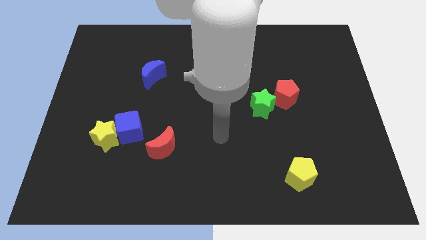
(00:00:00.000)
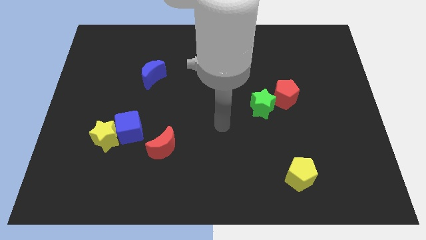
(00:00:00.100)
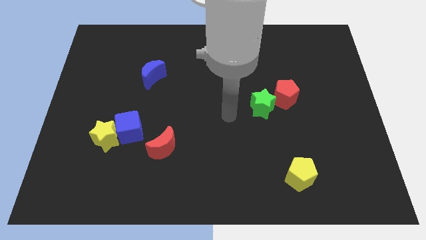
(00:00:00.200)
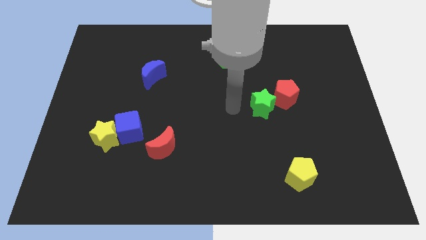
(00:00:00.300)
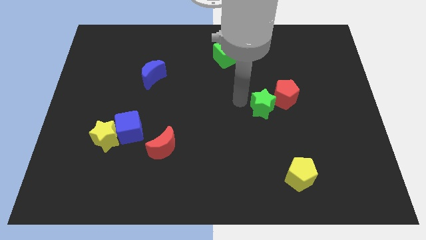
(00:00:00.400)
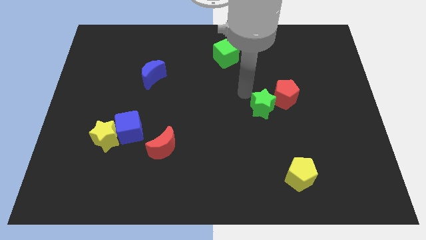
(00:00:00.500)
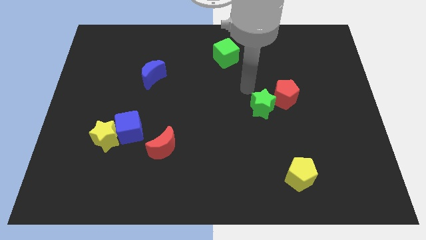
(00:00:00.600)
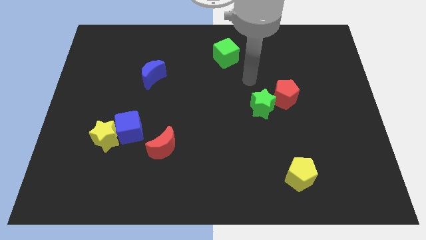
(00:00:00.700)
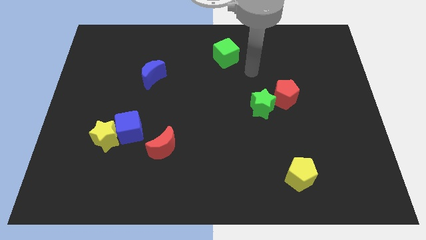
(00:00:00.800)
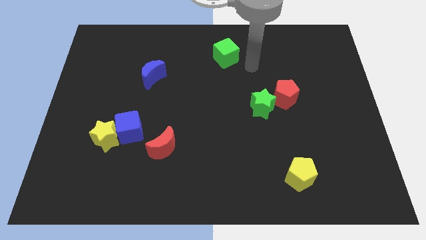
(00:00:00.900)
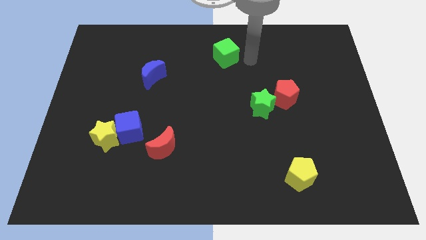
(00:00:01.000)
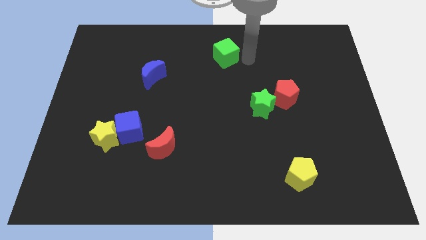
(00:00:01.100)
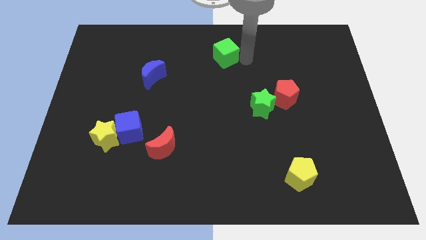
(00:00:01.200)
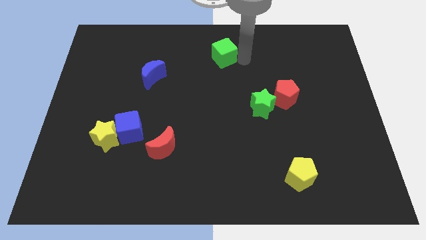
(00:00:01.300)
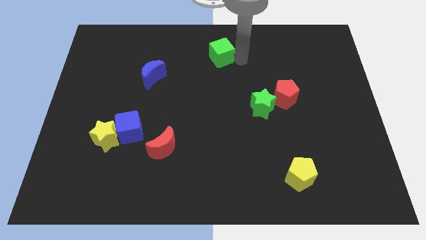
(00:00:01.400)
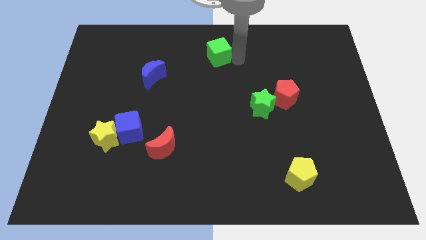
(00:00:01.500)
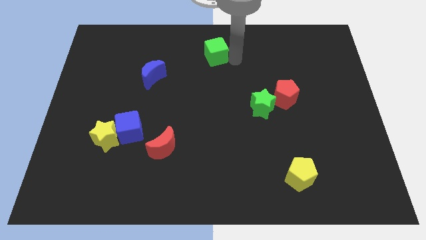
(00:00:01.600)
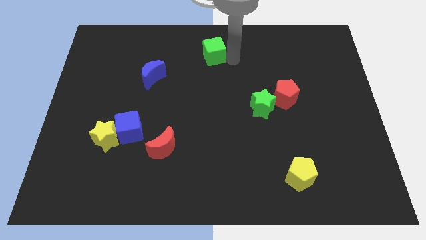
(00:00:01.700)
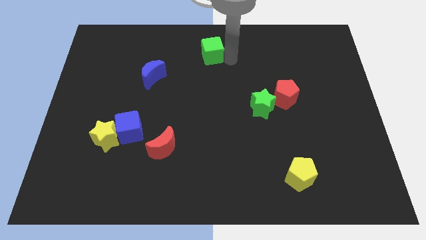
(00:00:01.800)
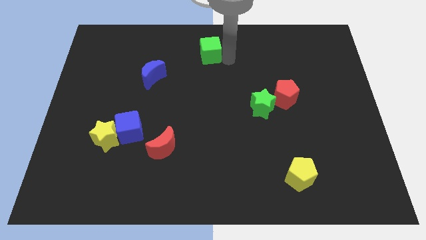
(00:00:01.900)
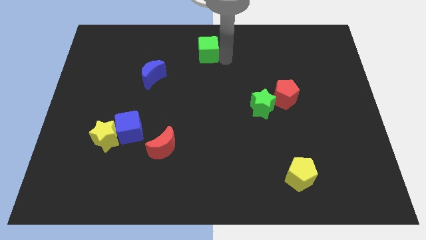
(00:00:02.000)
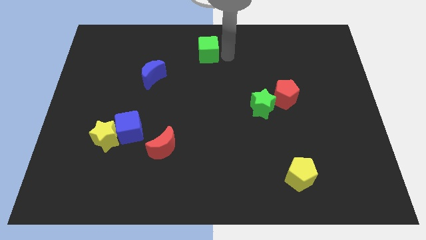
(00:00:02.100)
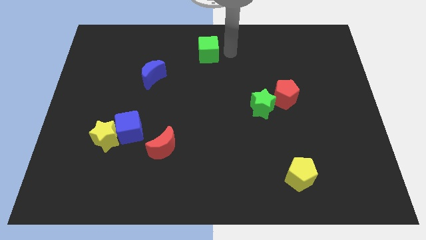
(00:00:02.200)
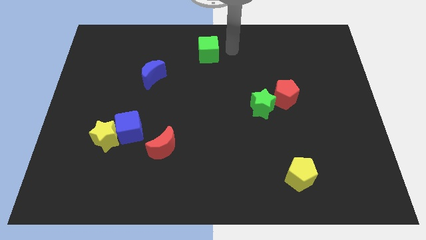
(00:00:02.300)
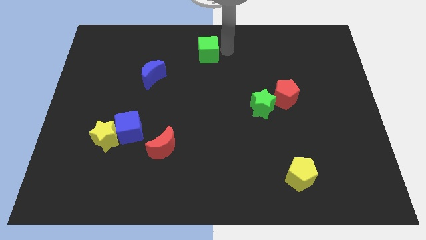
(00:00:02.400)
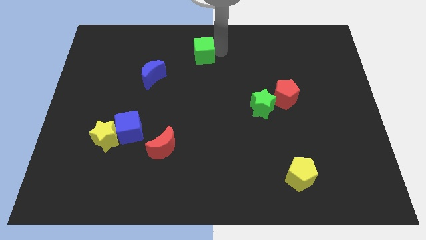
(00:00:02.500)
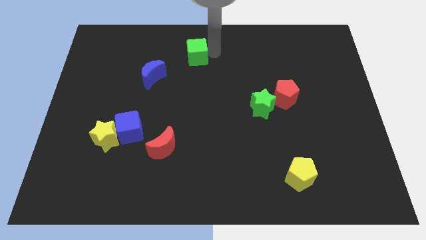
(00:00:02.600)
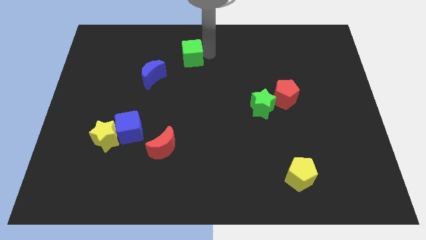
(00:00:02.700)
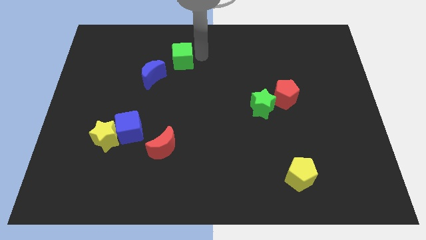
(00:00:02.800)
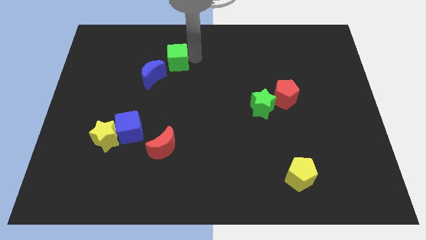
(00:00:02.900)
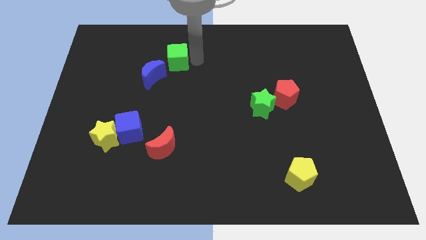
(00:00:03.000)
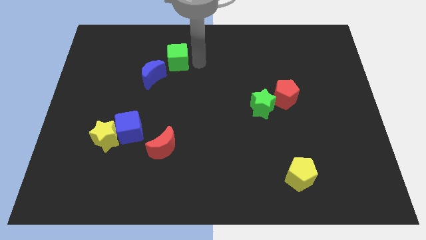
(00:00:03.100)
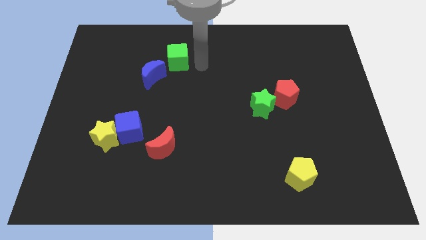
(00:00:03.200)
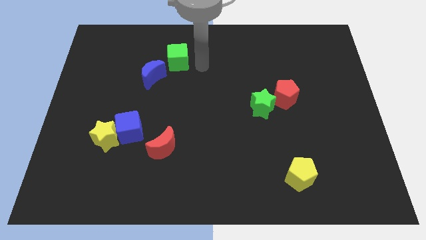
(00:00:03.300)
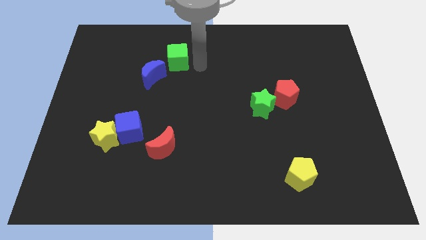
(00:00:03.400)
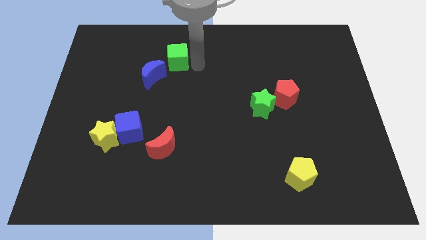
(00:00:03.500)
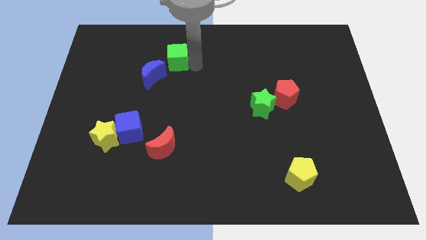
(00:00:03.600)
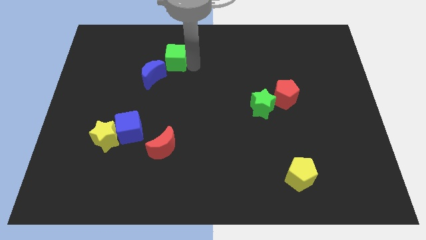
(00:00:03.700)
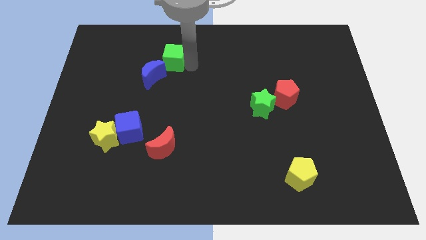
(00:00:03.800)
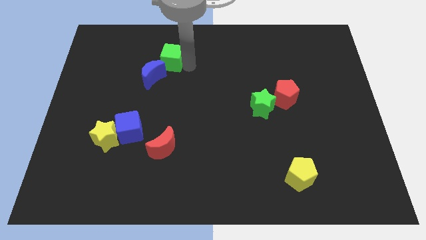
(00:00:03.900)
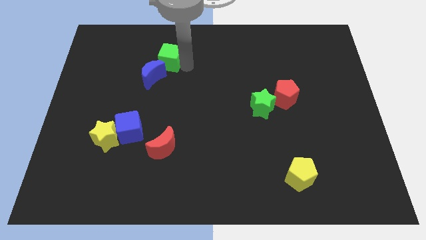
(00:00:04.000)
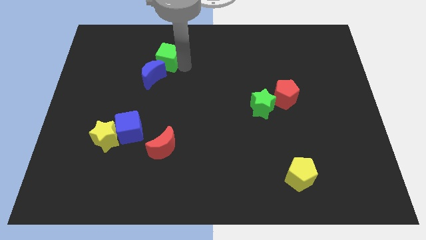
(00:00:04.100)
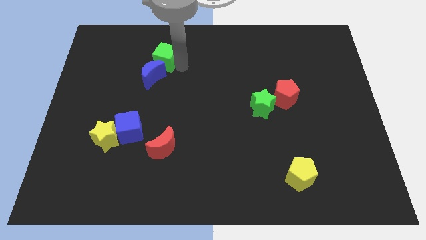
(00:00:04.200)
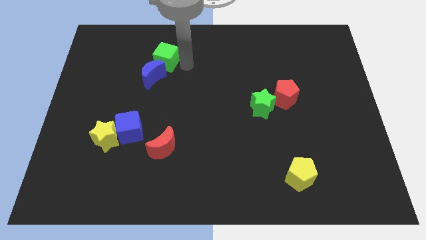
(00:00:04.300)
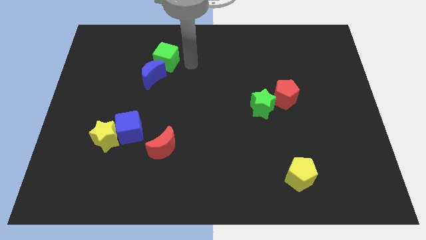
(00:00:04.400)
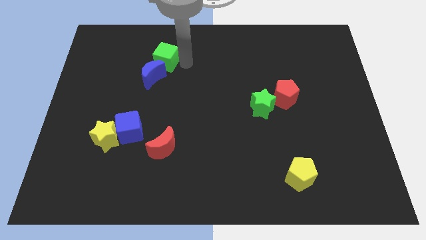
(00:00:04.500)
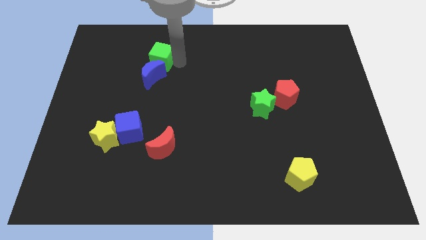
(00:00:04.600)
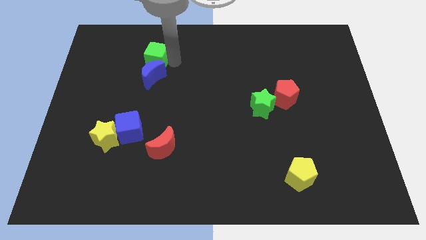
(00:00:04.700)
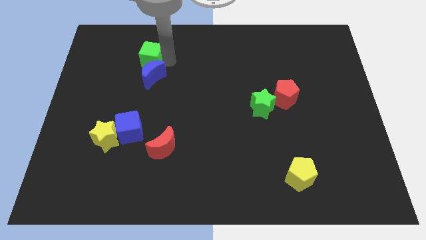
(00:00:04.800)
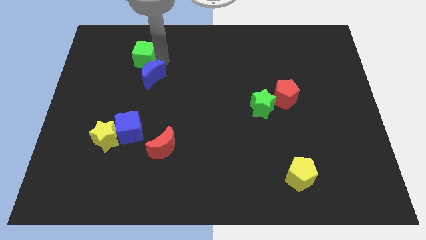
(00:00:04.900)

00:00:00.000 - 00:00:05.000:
slide the green cube left

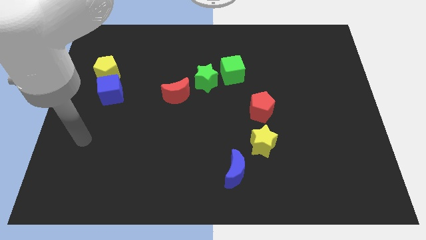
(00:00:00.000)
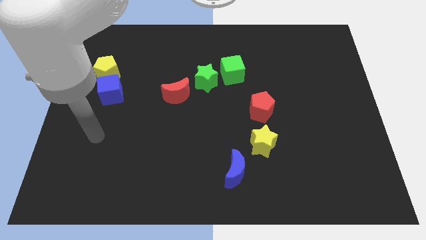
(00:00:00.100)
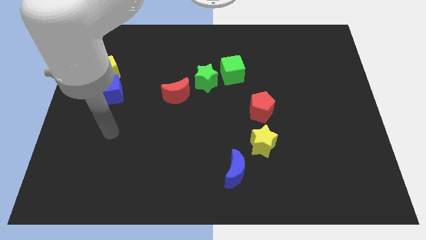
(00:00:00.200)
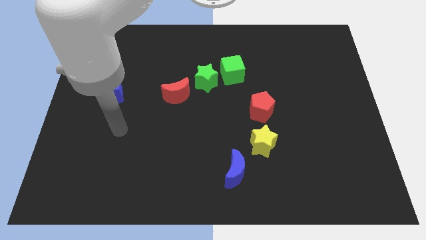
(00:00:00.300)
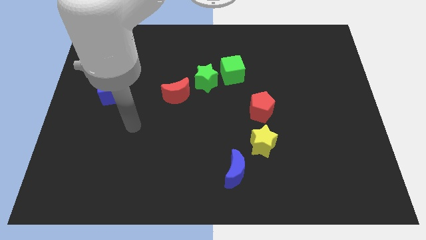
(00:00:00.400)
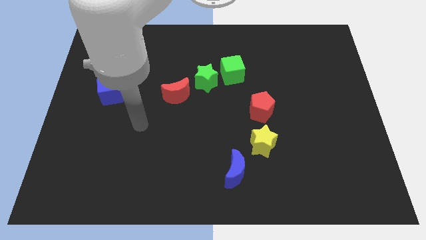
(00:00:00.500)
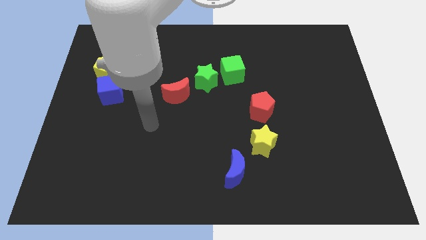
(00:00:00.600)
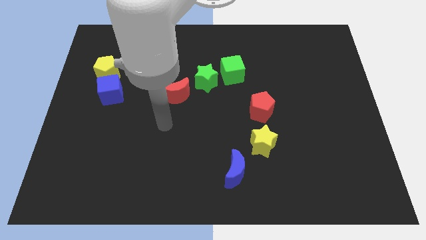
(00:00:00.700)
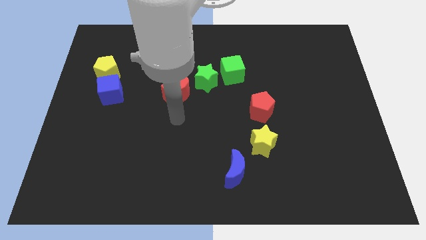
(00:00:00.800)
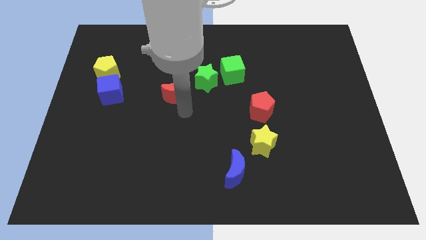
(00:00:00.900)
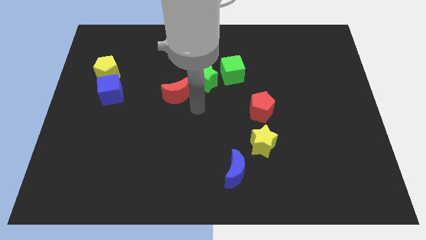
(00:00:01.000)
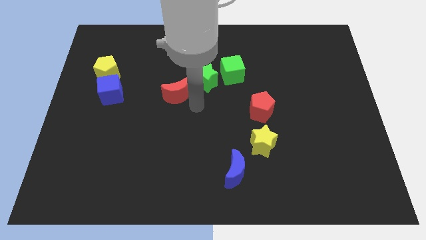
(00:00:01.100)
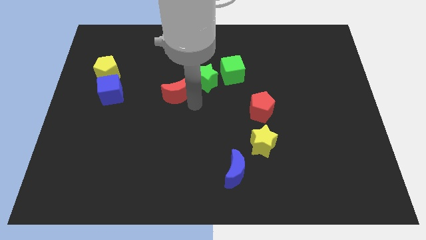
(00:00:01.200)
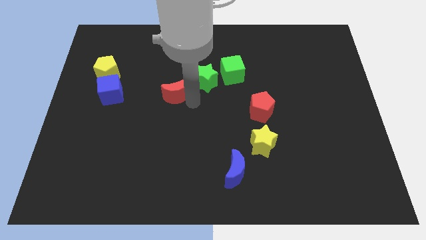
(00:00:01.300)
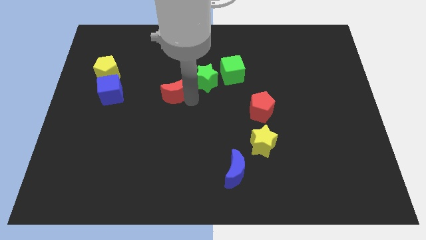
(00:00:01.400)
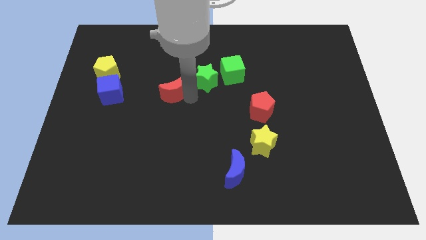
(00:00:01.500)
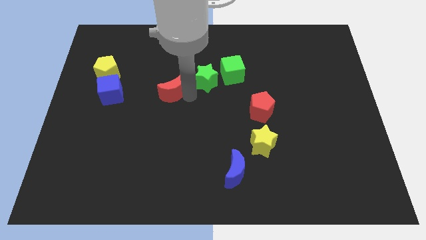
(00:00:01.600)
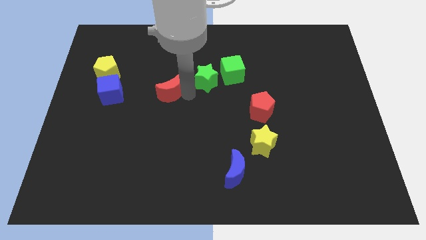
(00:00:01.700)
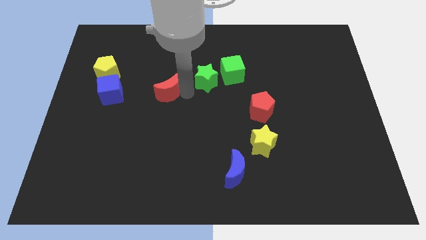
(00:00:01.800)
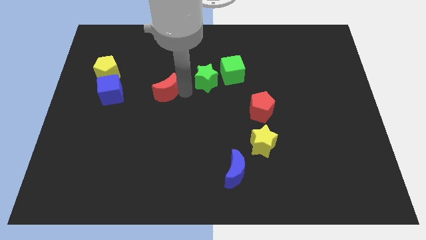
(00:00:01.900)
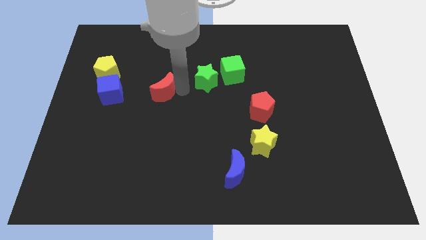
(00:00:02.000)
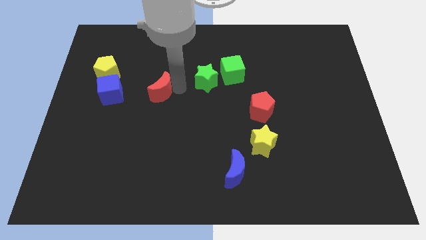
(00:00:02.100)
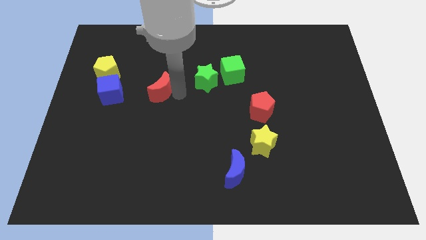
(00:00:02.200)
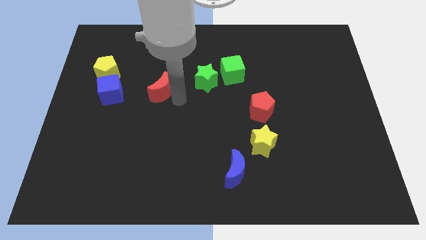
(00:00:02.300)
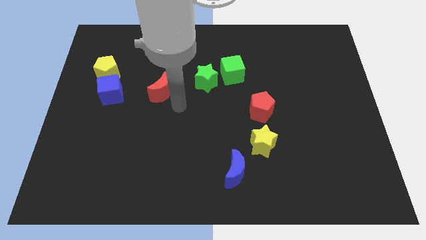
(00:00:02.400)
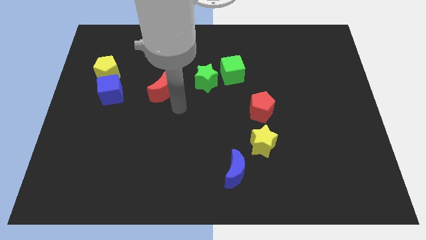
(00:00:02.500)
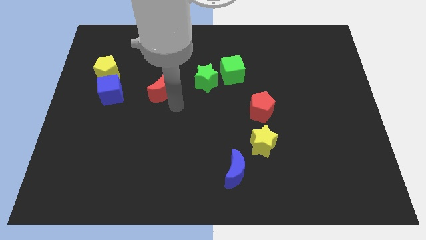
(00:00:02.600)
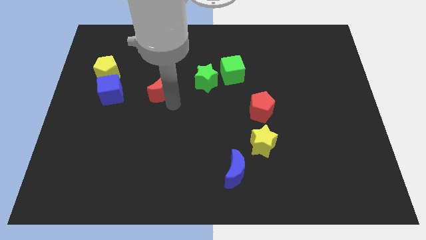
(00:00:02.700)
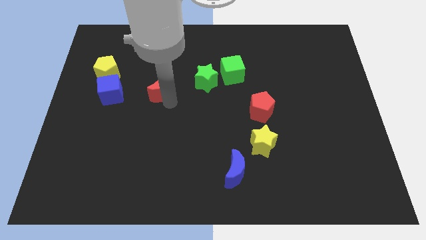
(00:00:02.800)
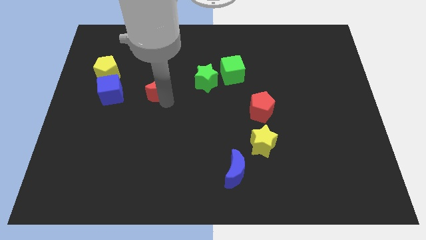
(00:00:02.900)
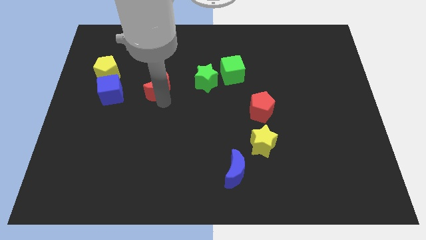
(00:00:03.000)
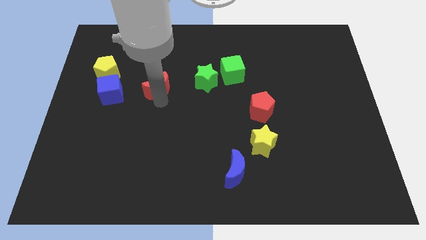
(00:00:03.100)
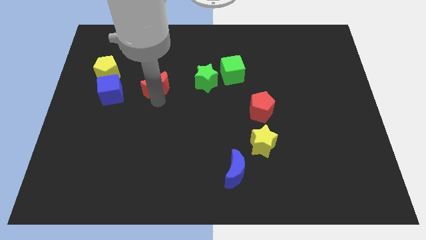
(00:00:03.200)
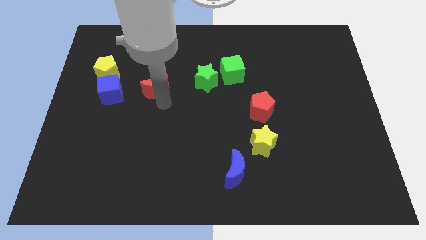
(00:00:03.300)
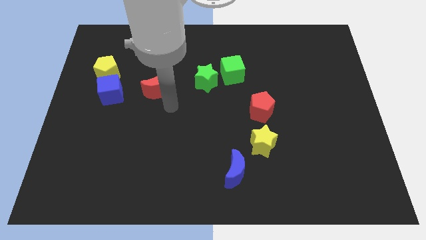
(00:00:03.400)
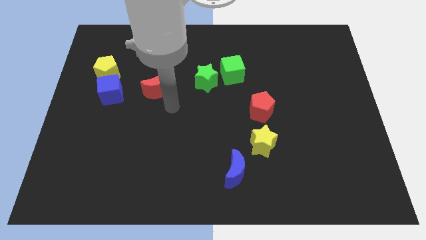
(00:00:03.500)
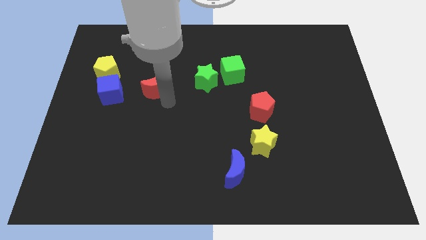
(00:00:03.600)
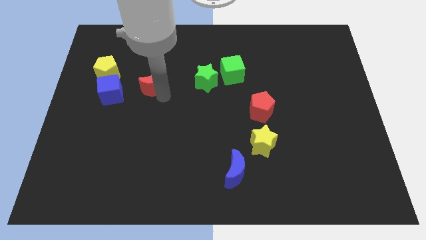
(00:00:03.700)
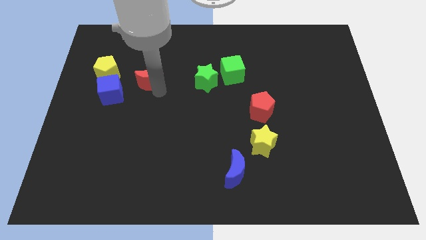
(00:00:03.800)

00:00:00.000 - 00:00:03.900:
push the red moon a little bit up and left diagonally
